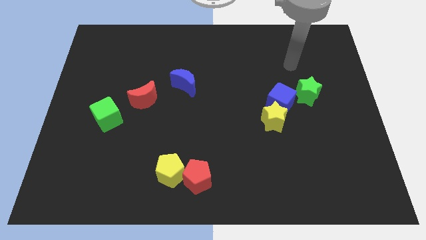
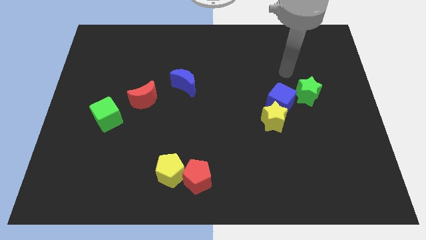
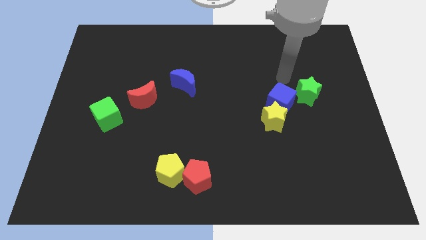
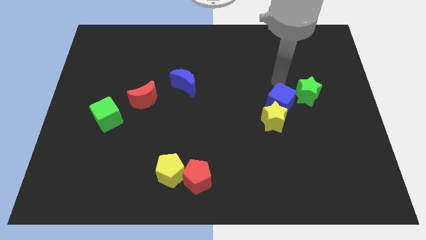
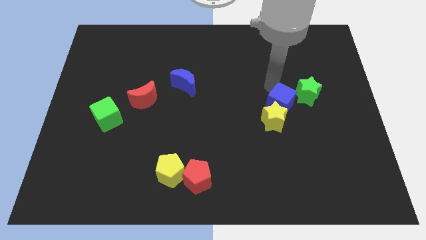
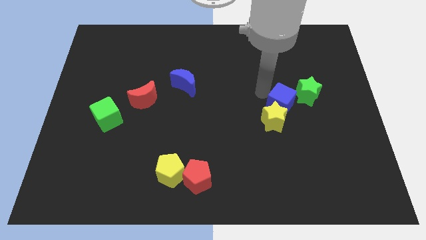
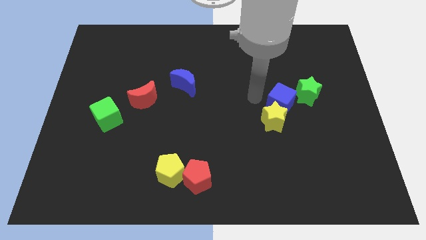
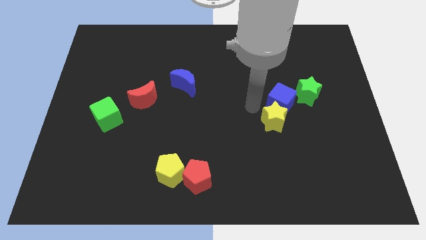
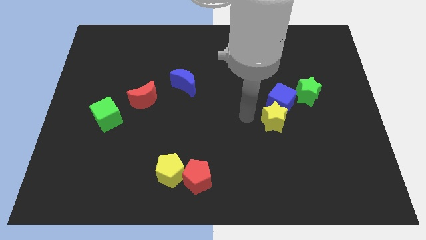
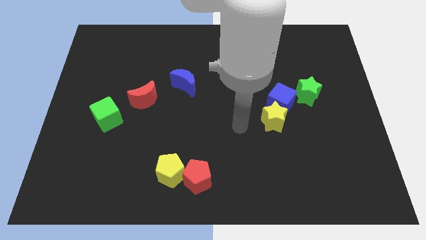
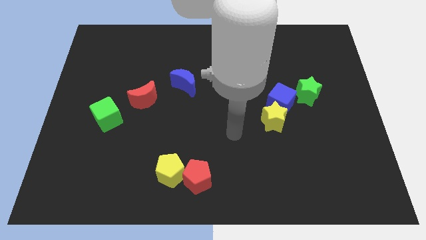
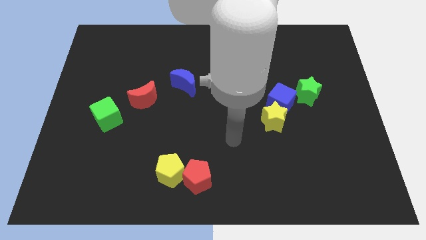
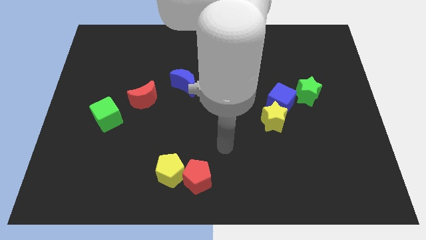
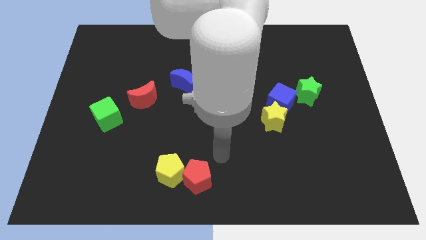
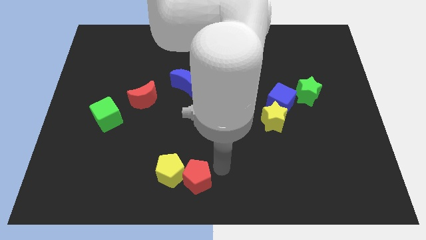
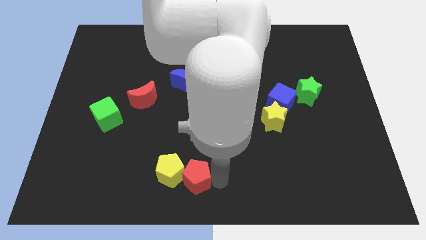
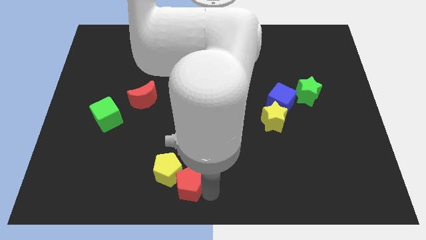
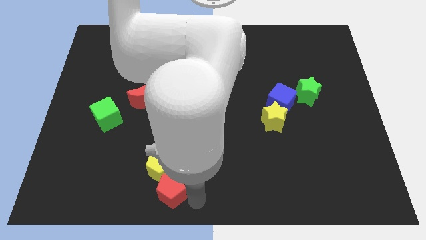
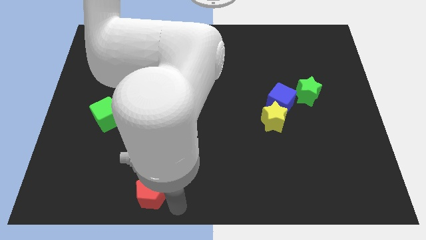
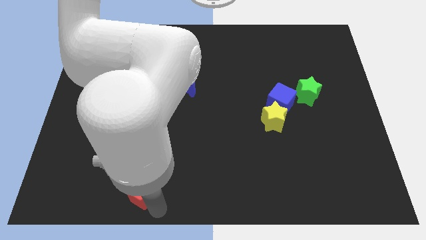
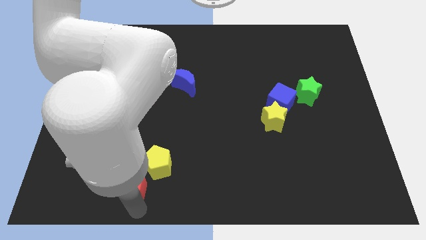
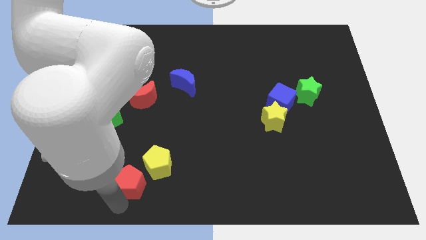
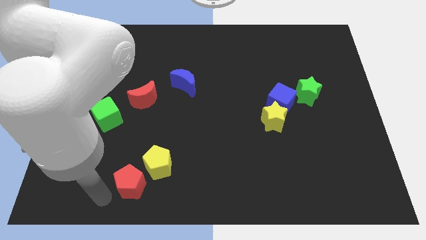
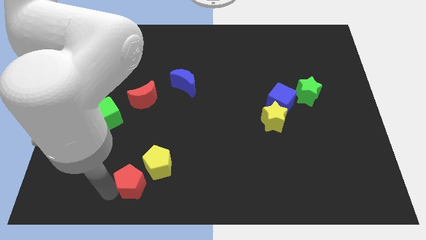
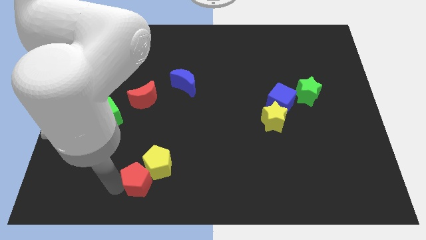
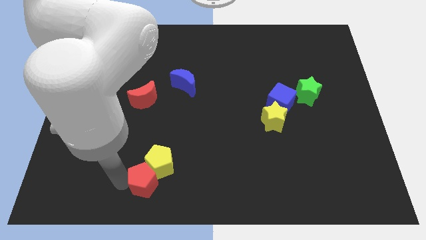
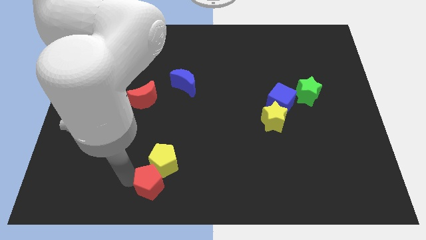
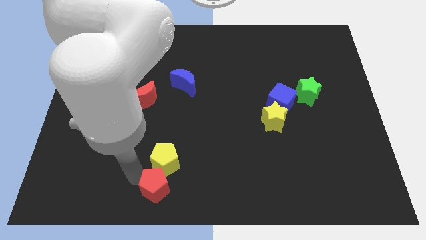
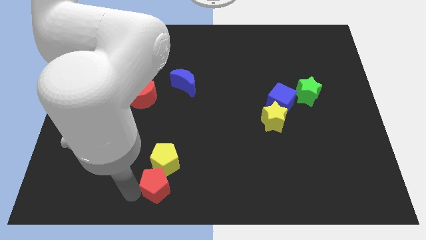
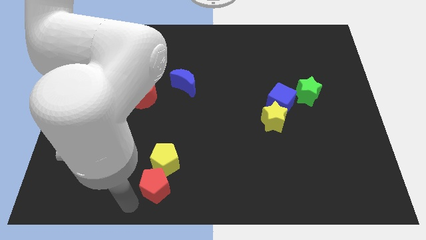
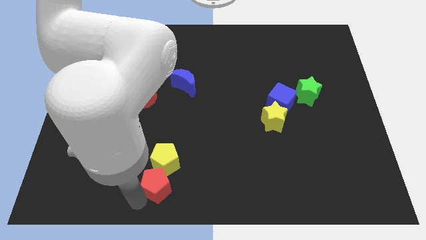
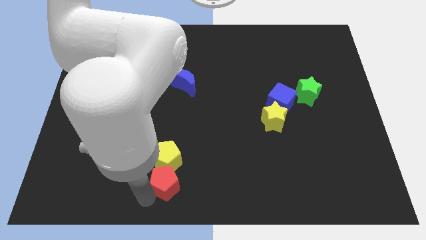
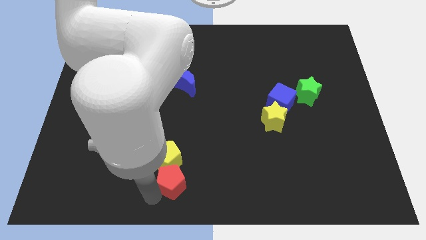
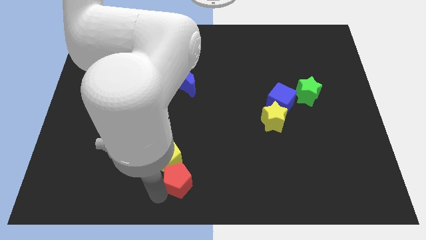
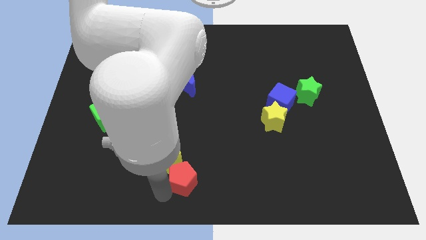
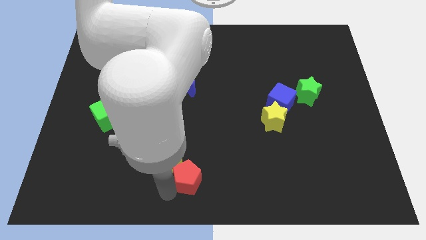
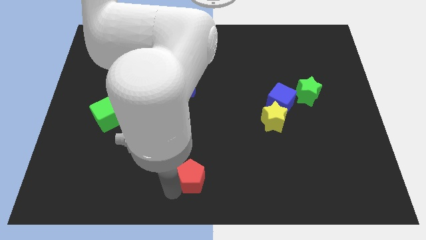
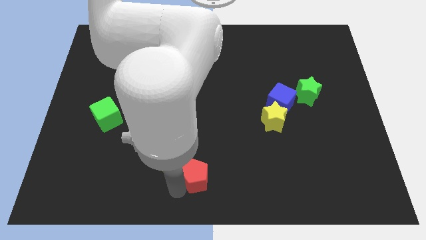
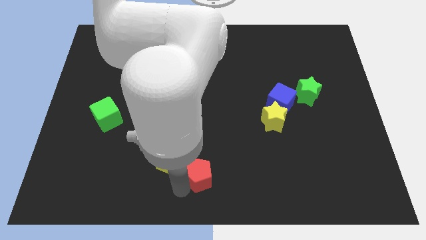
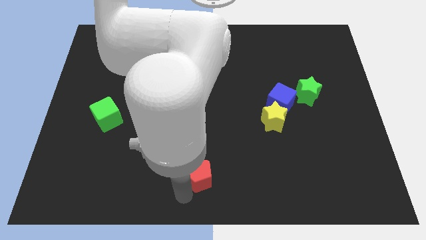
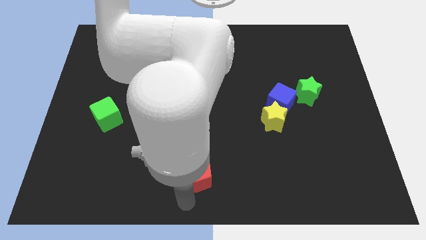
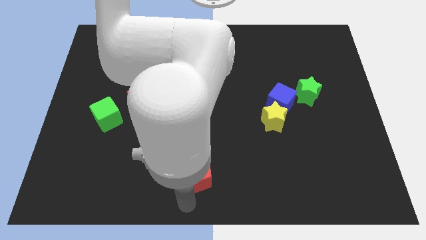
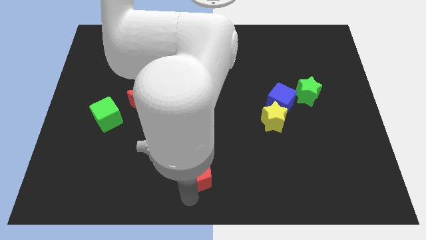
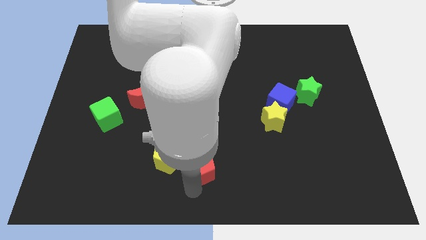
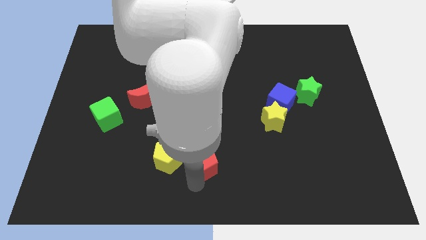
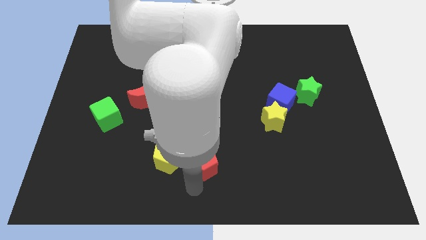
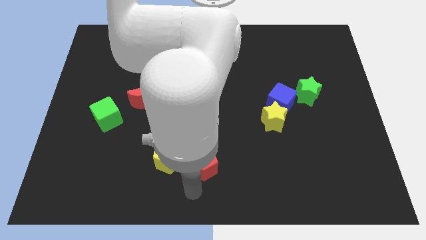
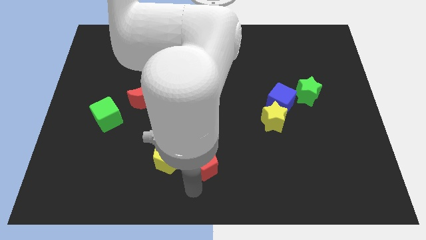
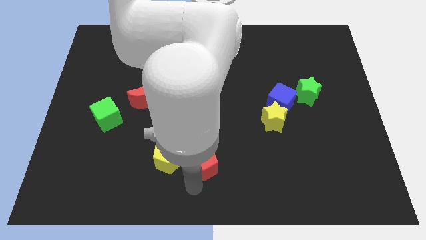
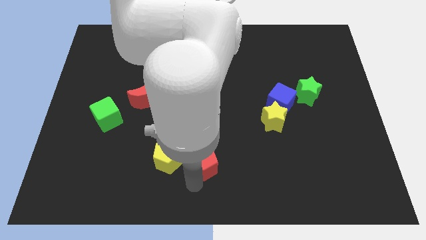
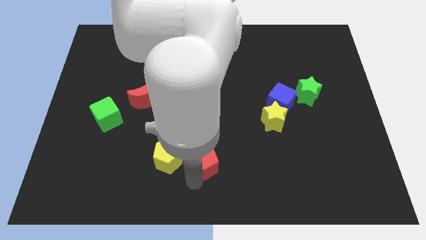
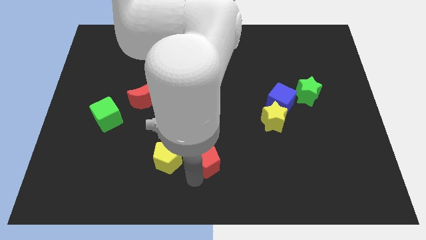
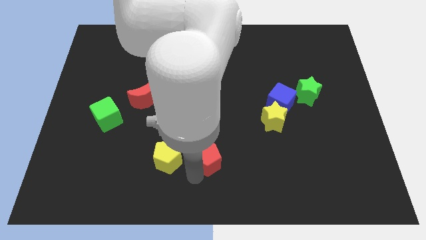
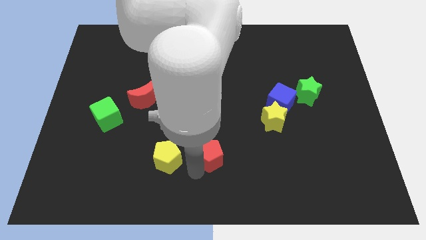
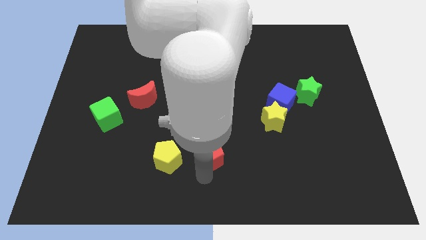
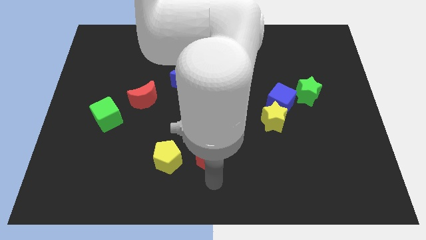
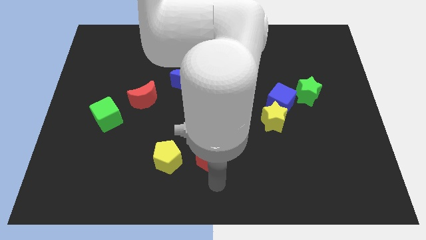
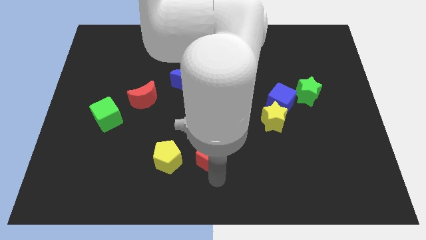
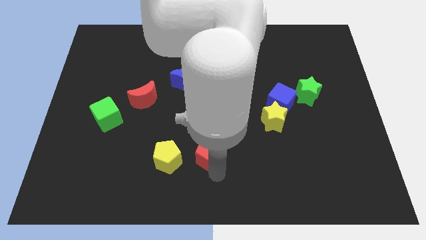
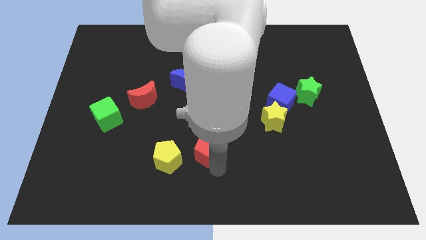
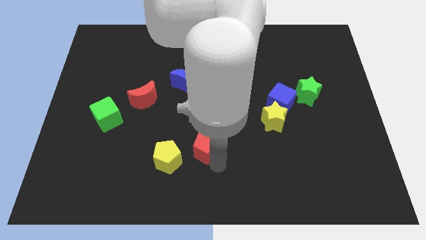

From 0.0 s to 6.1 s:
slightly slide the red pentagon upwards

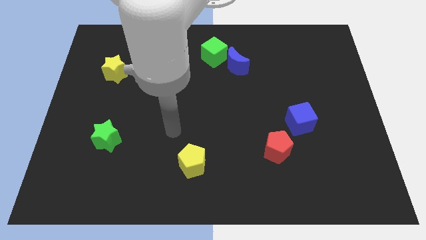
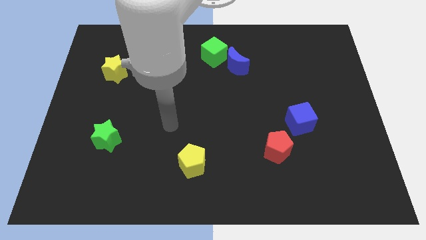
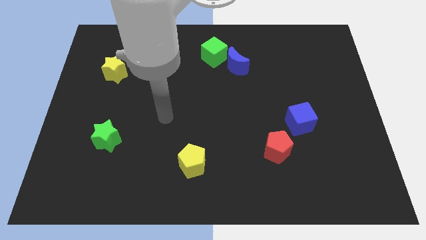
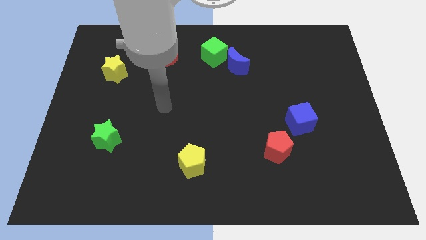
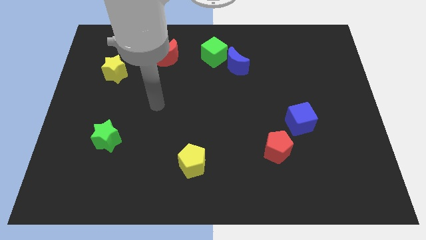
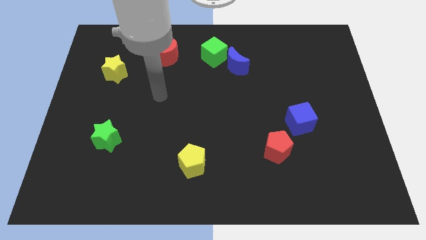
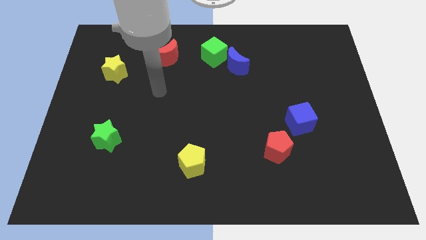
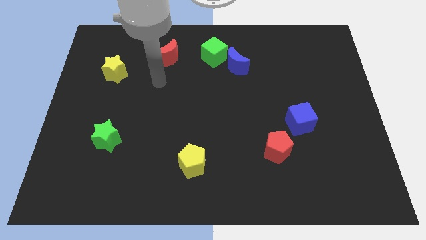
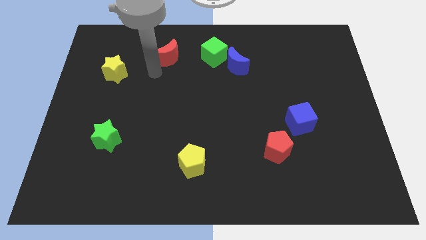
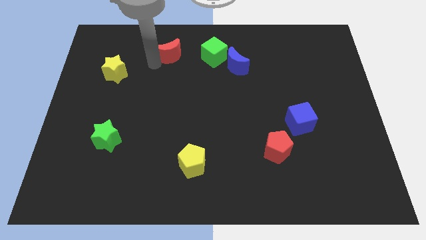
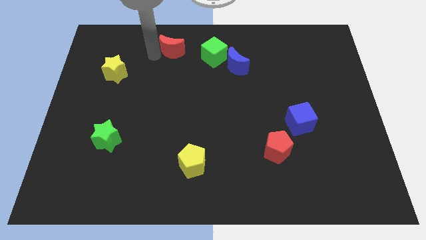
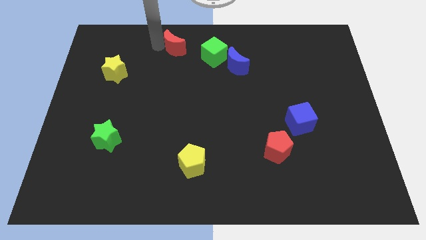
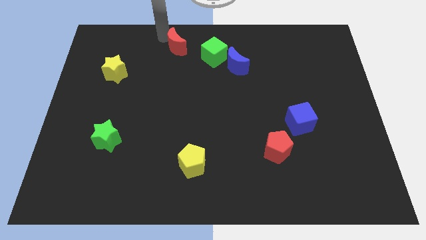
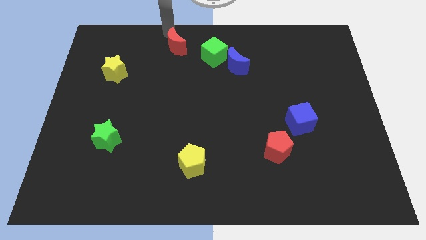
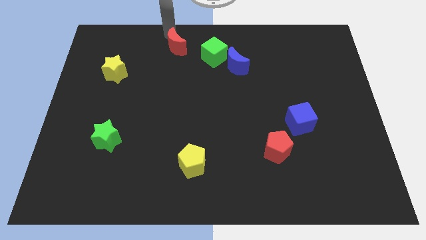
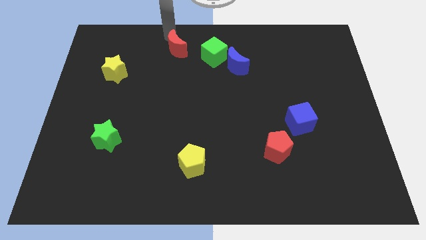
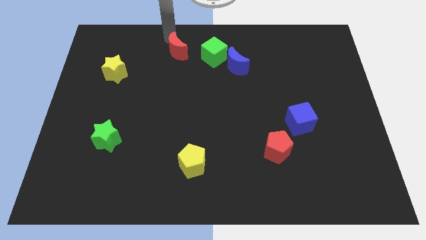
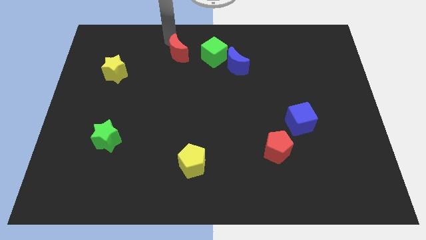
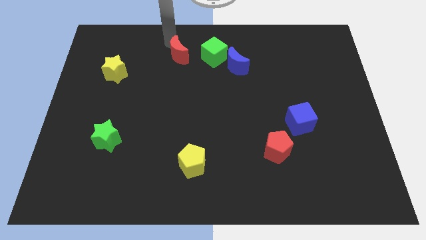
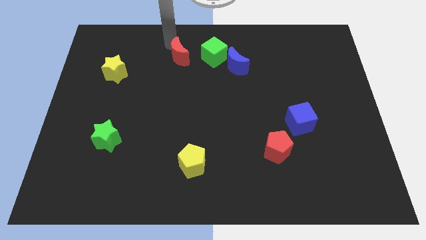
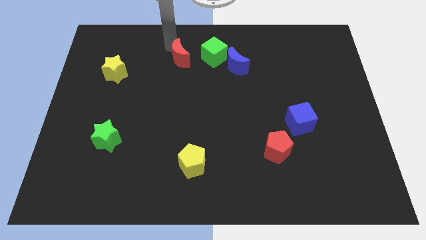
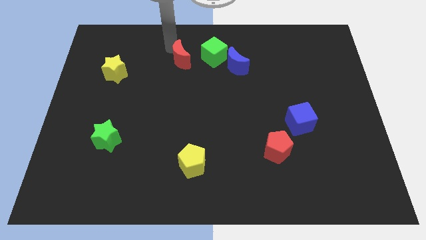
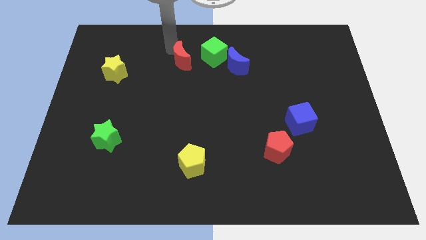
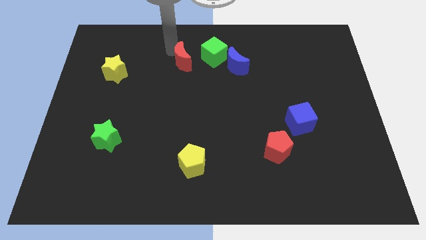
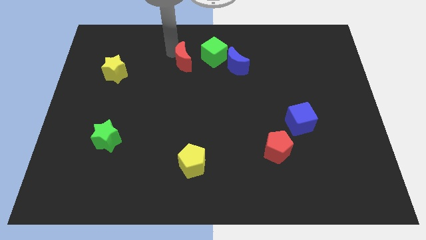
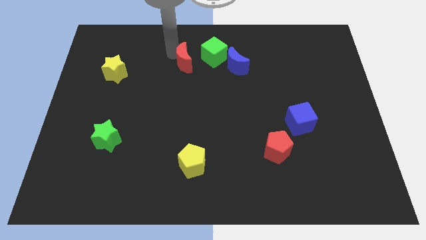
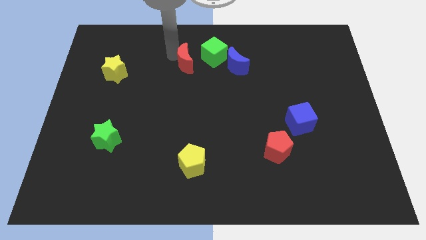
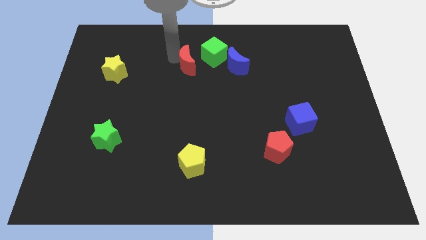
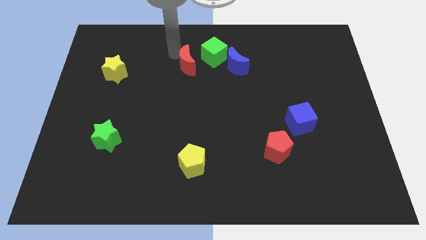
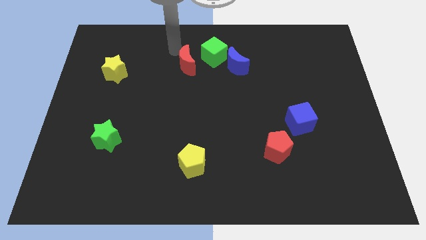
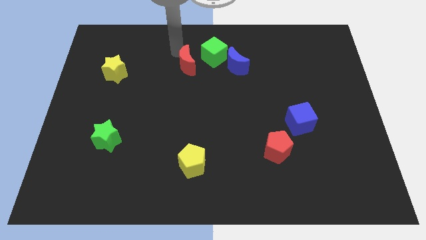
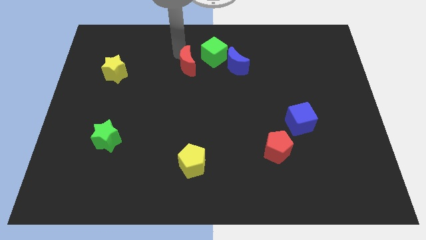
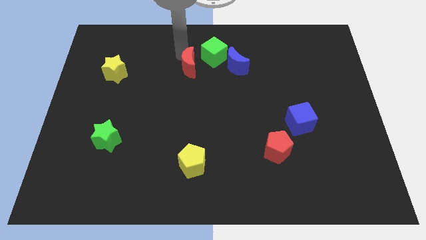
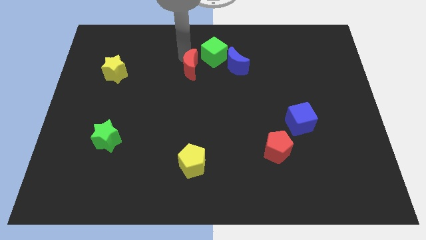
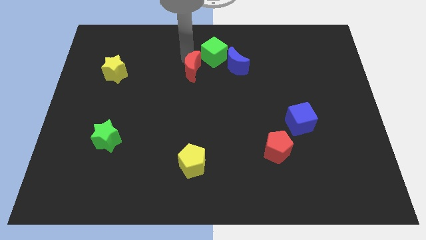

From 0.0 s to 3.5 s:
slightly slide the red moon down and then to the right
